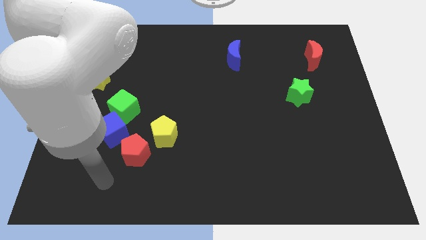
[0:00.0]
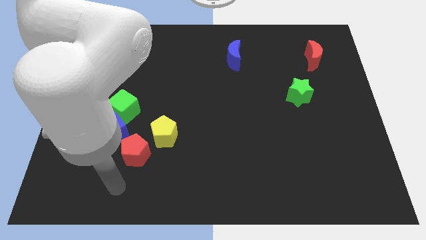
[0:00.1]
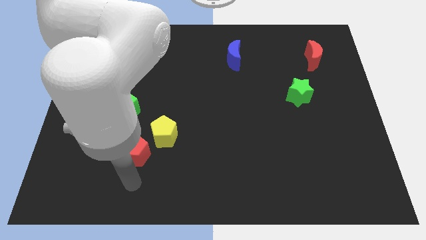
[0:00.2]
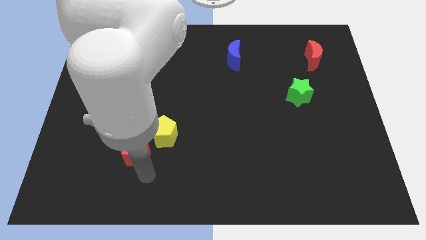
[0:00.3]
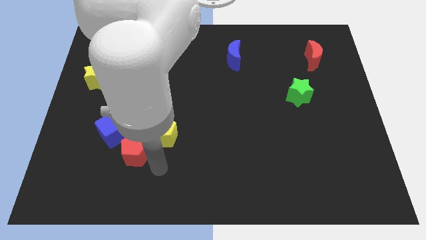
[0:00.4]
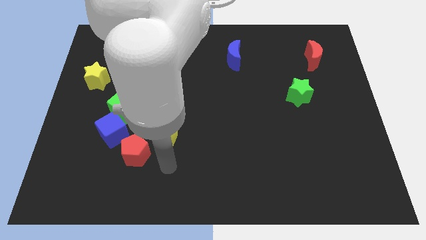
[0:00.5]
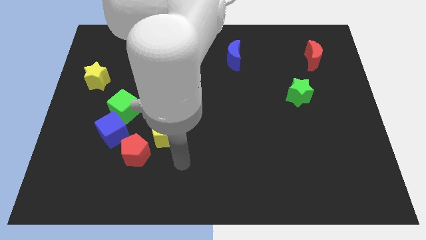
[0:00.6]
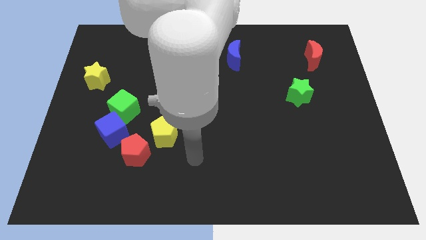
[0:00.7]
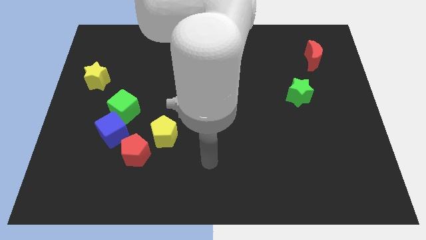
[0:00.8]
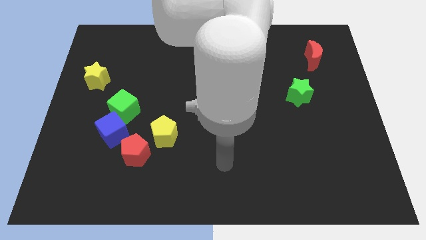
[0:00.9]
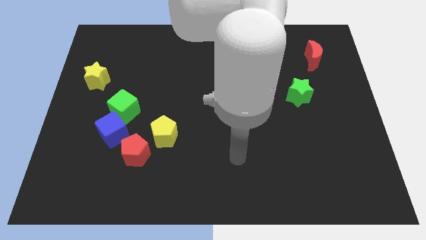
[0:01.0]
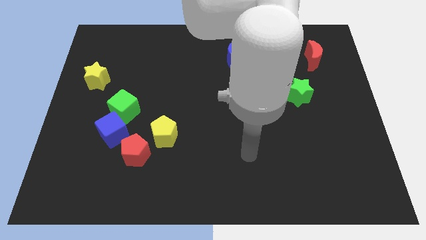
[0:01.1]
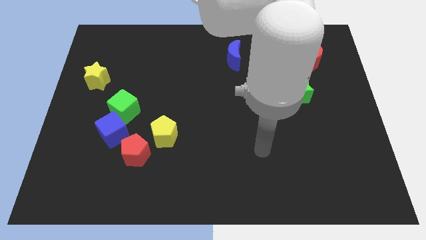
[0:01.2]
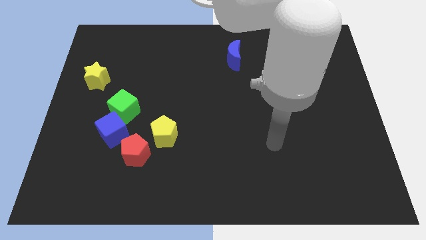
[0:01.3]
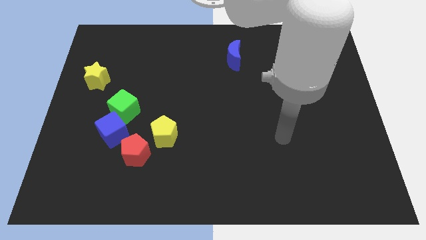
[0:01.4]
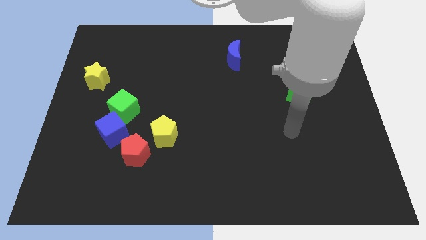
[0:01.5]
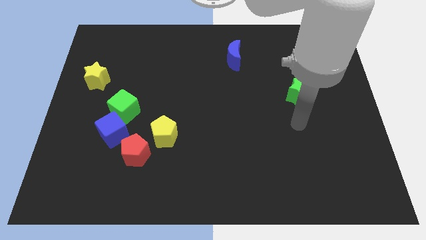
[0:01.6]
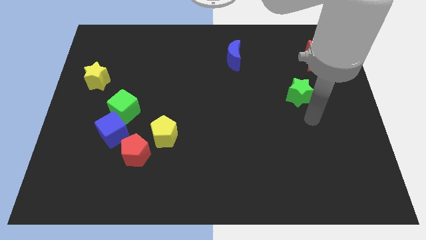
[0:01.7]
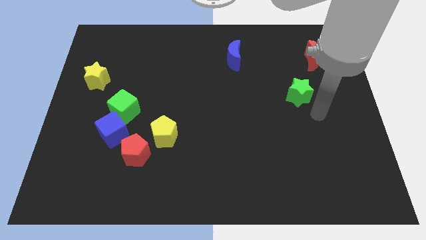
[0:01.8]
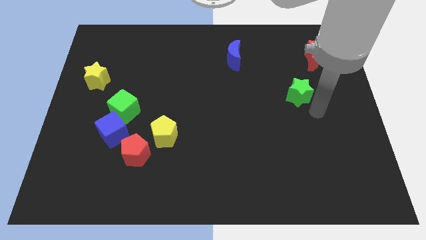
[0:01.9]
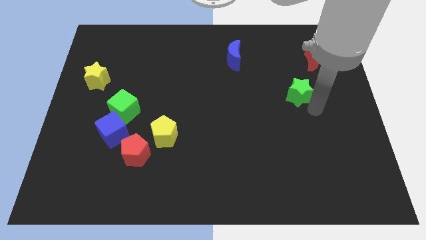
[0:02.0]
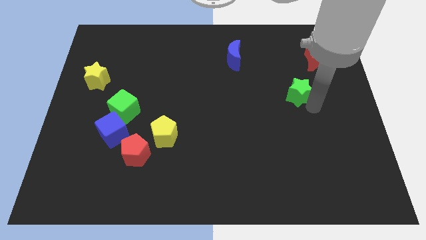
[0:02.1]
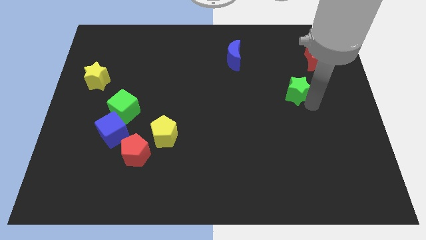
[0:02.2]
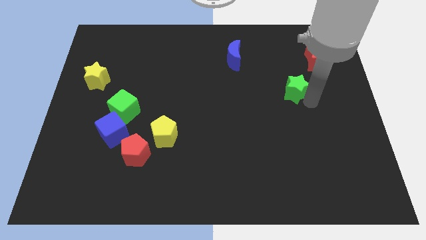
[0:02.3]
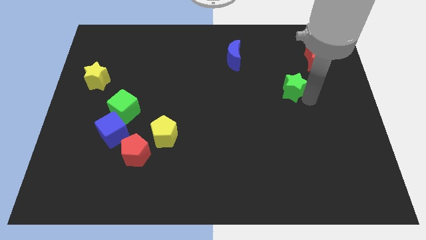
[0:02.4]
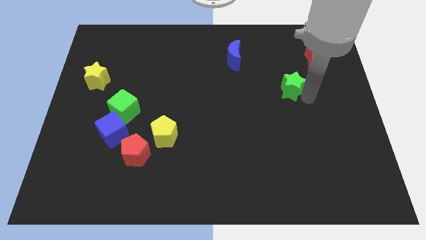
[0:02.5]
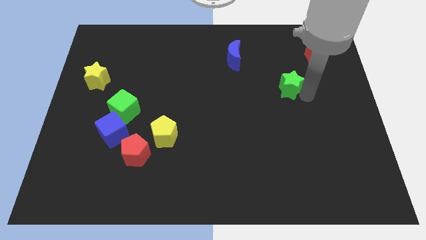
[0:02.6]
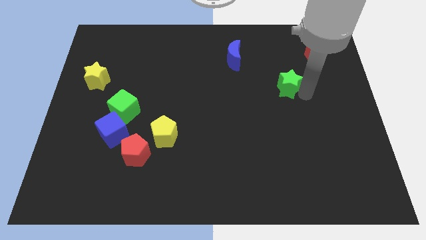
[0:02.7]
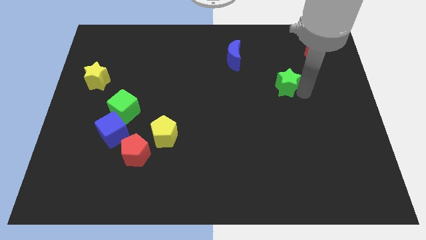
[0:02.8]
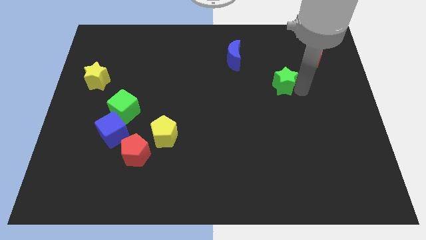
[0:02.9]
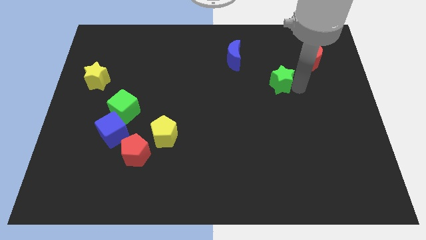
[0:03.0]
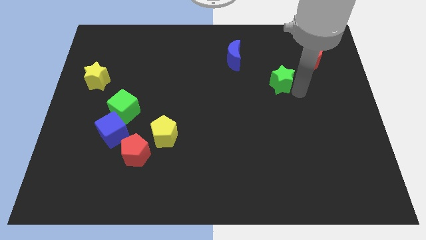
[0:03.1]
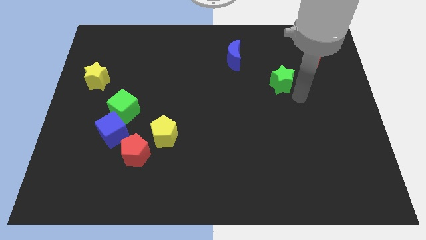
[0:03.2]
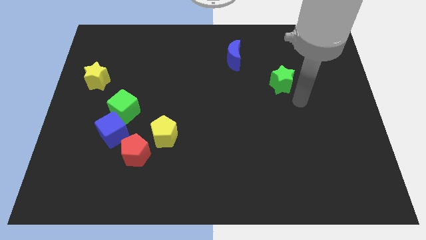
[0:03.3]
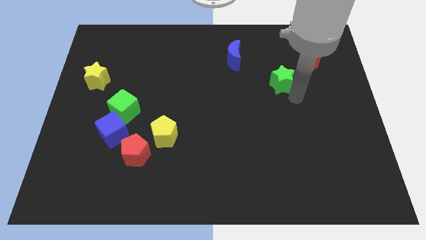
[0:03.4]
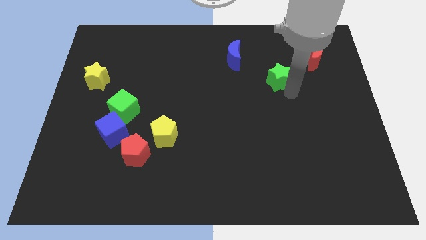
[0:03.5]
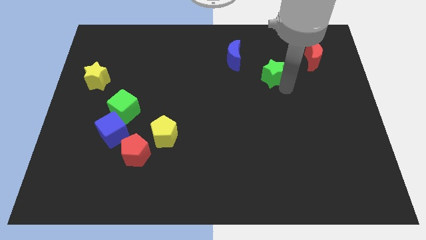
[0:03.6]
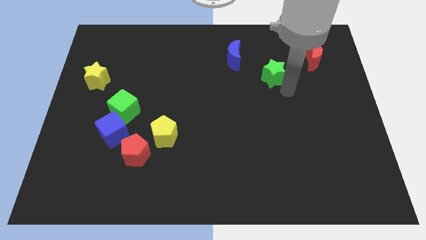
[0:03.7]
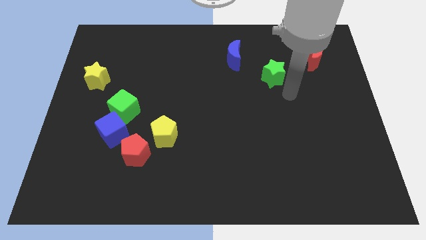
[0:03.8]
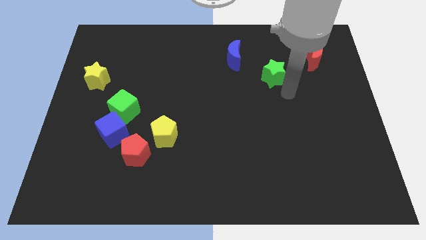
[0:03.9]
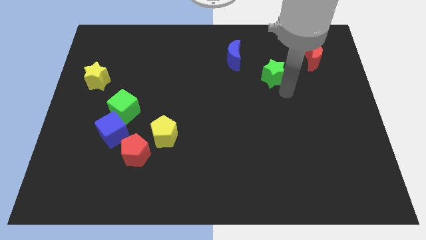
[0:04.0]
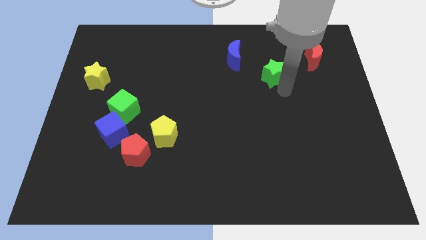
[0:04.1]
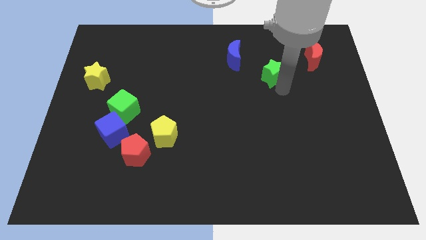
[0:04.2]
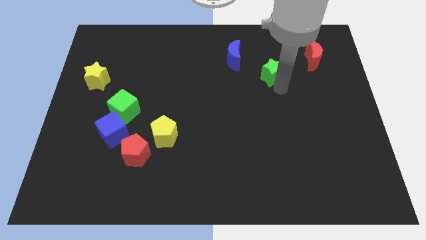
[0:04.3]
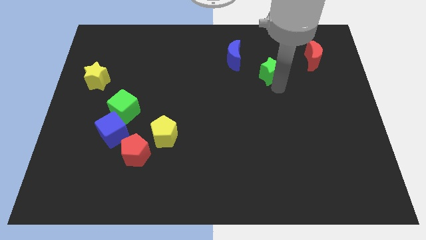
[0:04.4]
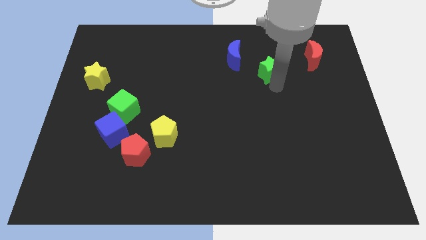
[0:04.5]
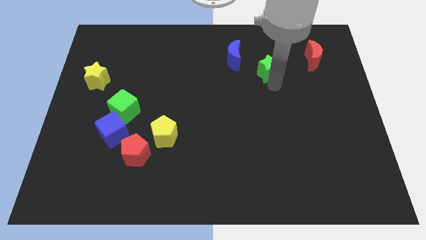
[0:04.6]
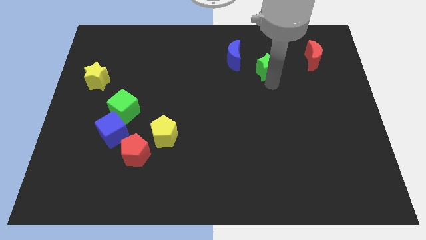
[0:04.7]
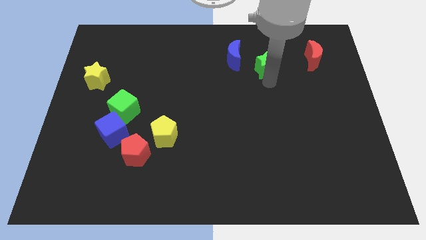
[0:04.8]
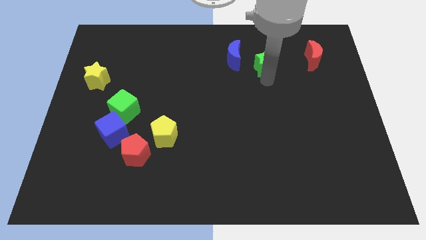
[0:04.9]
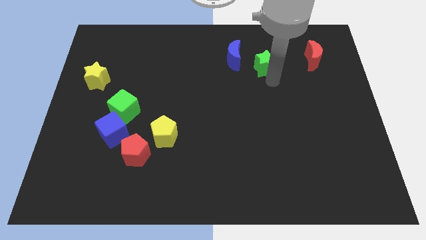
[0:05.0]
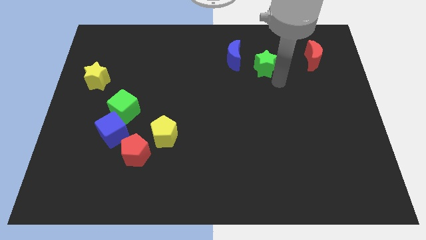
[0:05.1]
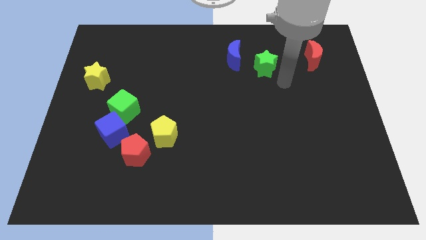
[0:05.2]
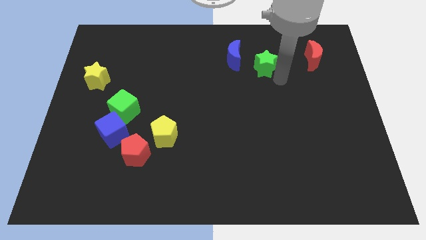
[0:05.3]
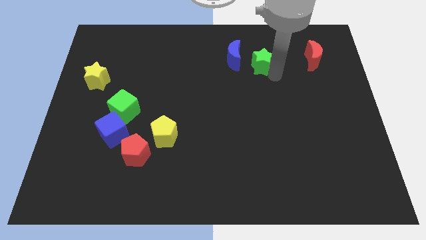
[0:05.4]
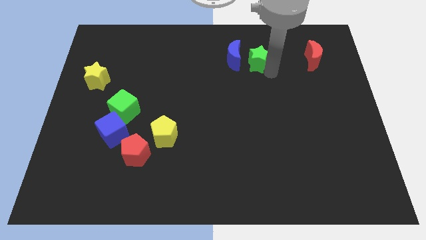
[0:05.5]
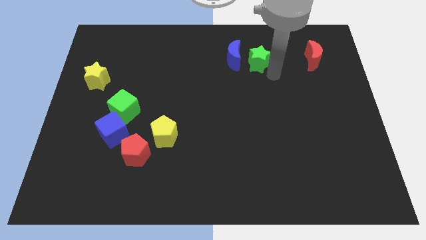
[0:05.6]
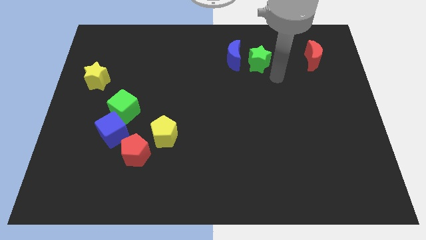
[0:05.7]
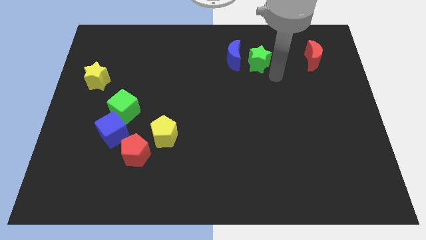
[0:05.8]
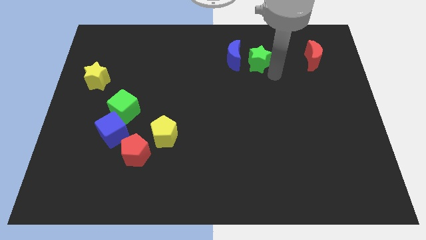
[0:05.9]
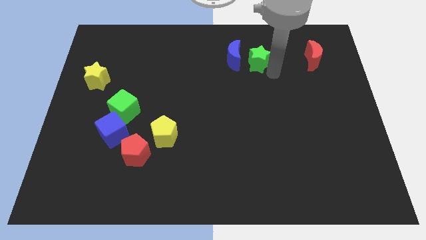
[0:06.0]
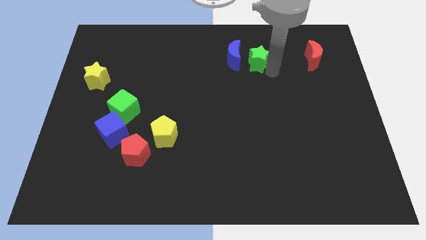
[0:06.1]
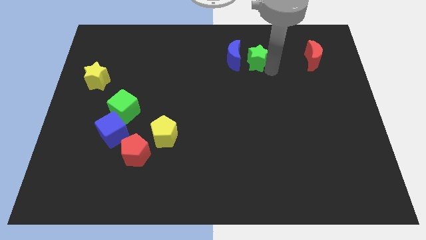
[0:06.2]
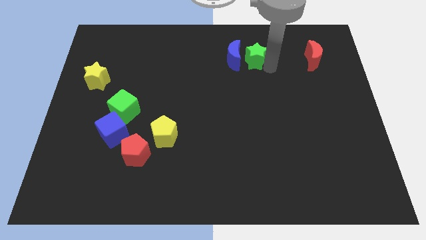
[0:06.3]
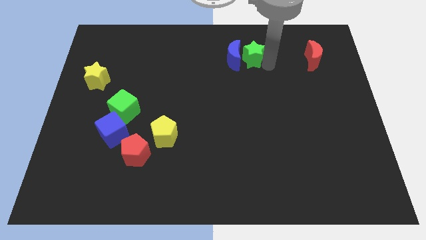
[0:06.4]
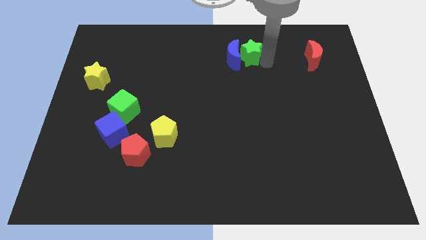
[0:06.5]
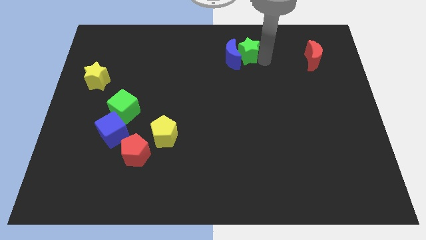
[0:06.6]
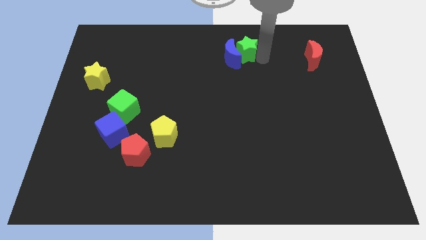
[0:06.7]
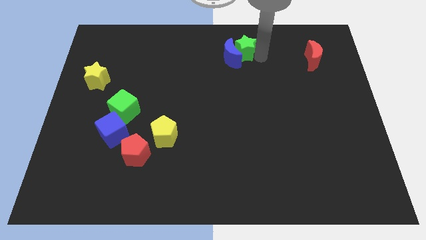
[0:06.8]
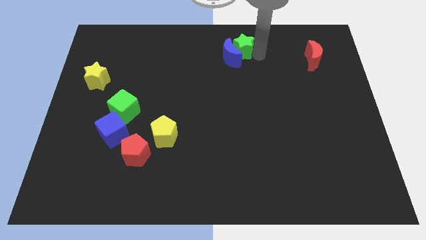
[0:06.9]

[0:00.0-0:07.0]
slide the green star to the top side
